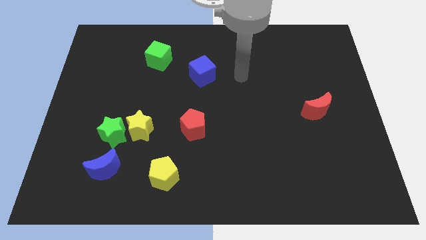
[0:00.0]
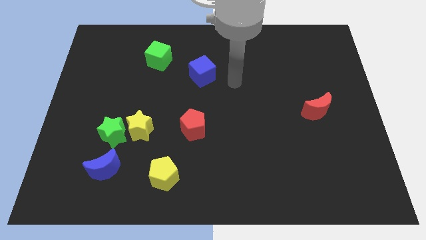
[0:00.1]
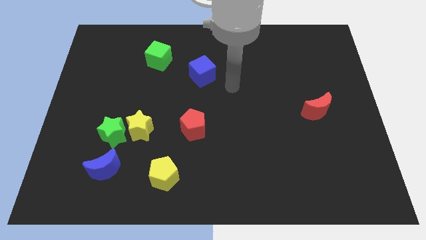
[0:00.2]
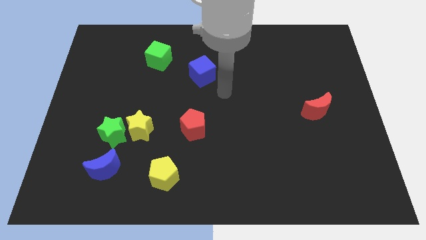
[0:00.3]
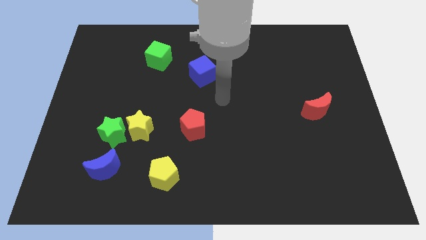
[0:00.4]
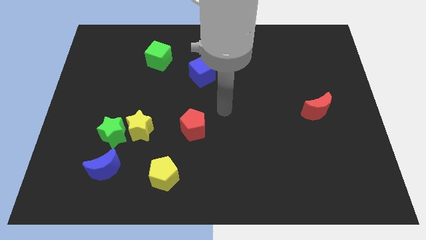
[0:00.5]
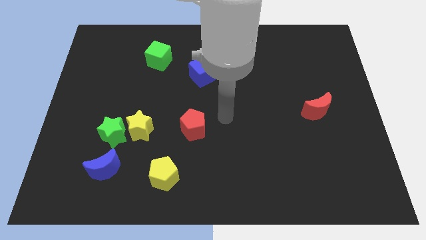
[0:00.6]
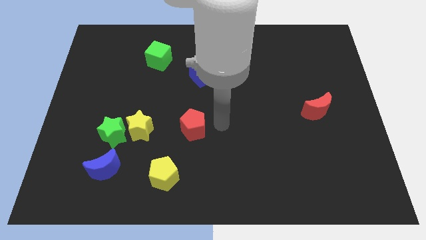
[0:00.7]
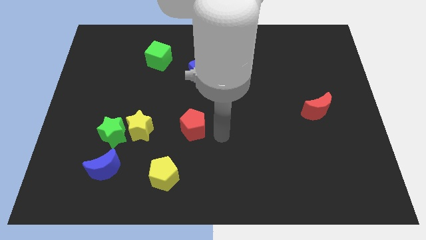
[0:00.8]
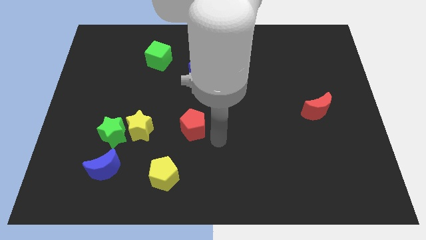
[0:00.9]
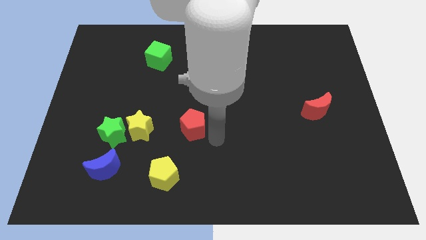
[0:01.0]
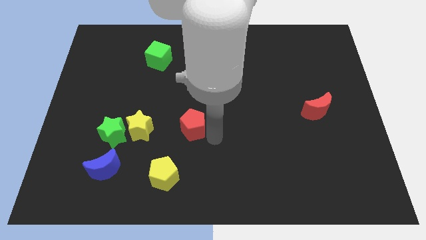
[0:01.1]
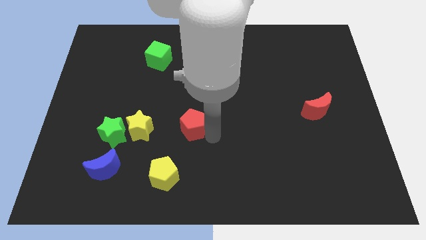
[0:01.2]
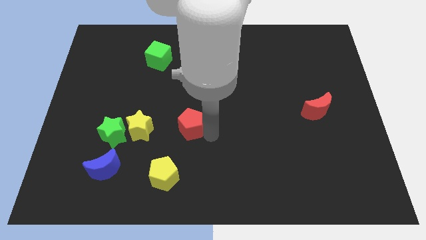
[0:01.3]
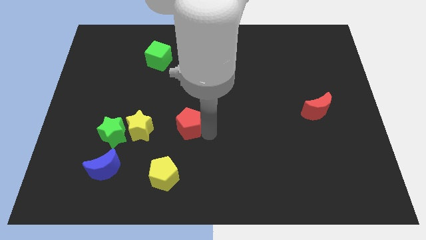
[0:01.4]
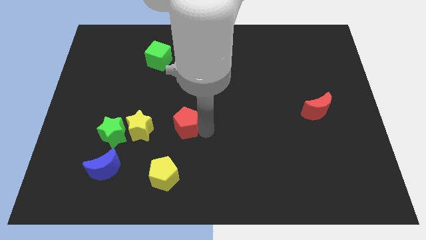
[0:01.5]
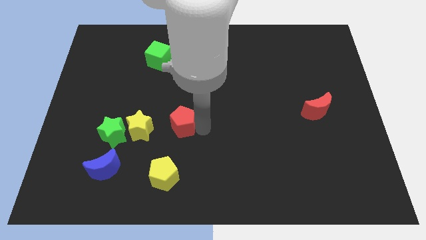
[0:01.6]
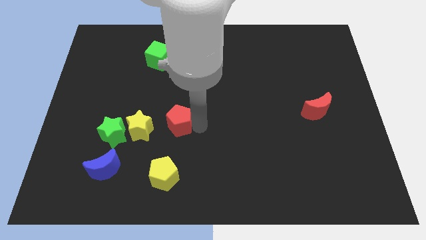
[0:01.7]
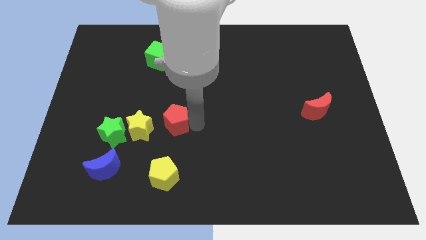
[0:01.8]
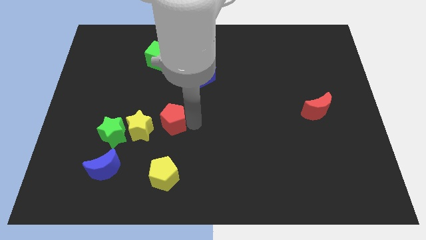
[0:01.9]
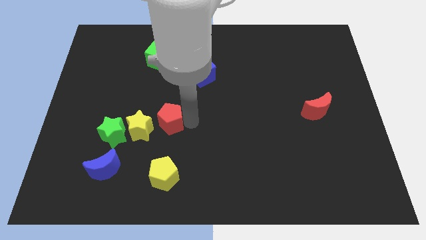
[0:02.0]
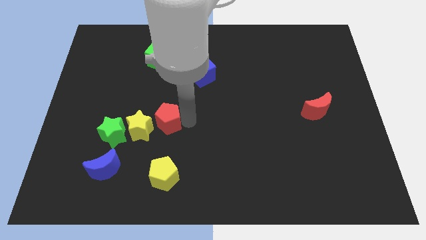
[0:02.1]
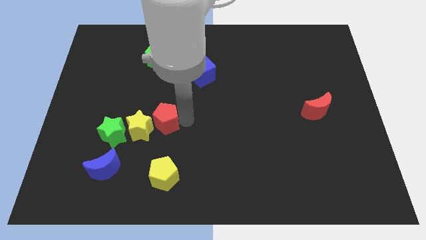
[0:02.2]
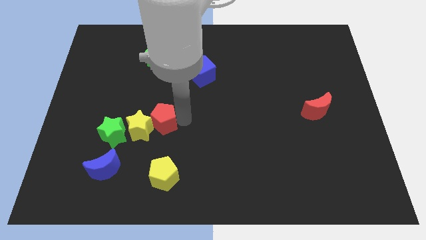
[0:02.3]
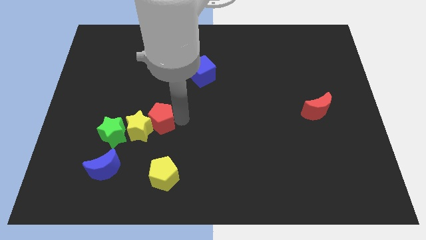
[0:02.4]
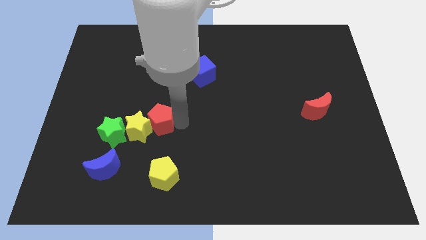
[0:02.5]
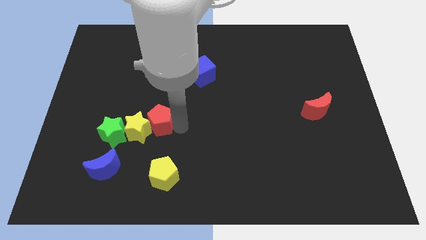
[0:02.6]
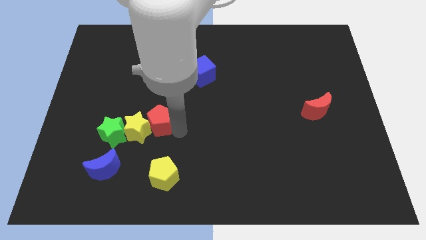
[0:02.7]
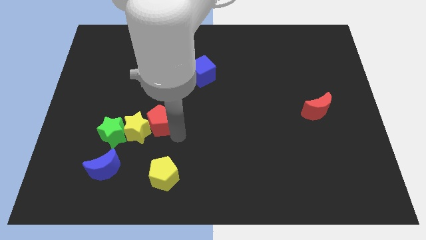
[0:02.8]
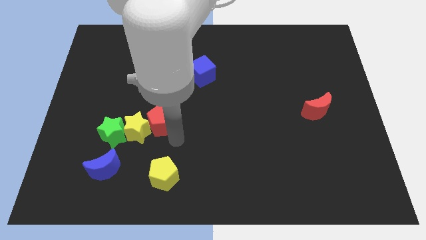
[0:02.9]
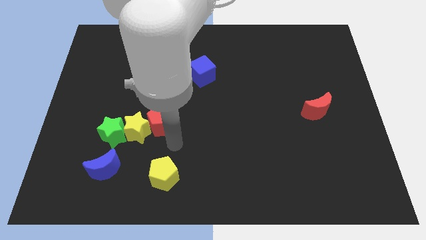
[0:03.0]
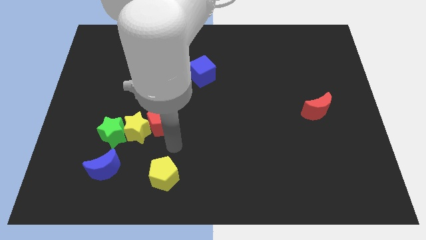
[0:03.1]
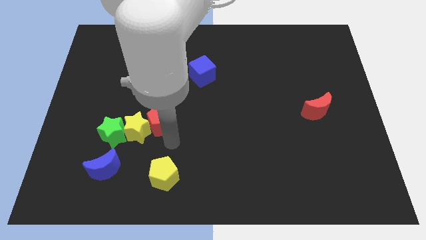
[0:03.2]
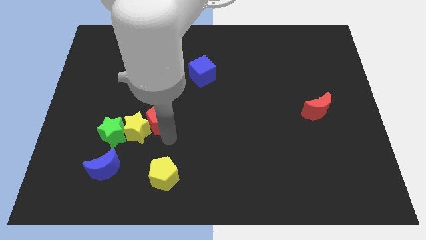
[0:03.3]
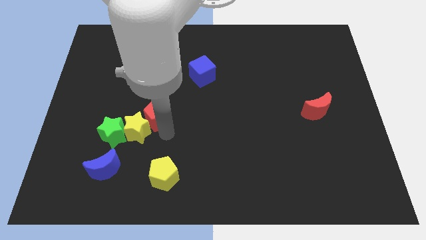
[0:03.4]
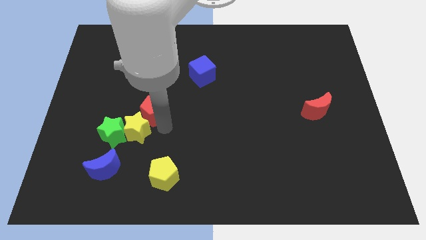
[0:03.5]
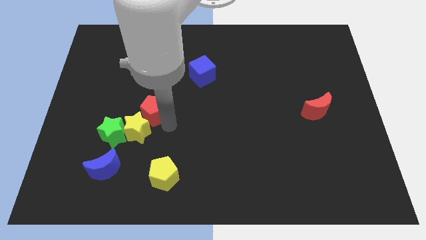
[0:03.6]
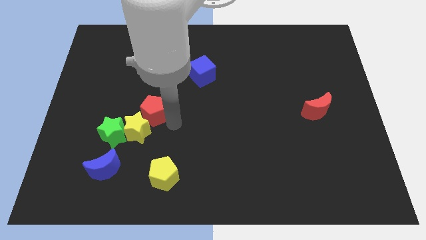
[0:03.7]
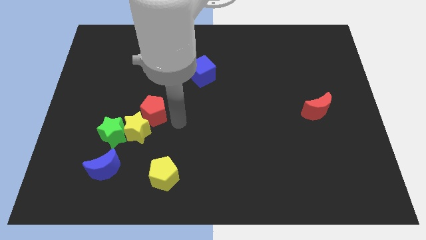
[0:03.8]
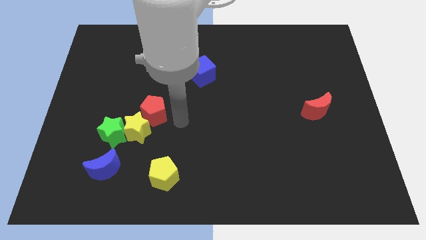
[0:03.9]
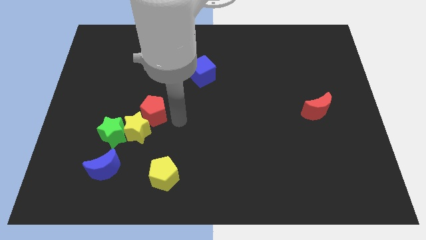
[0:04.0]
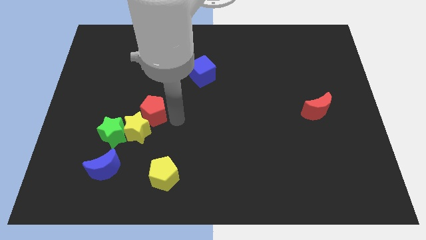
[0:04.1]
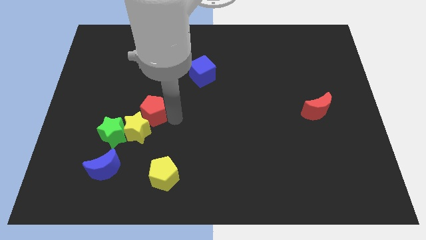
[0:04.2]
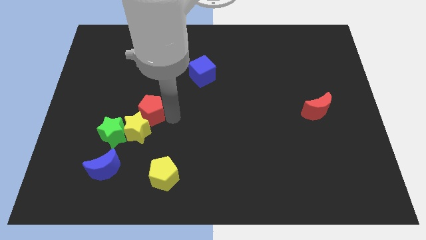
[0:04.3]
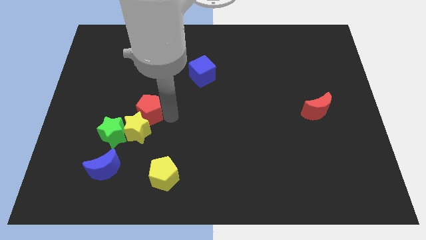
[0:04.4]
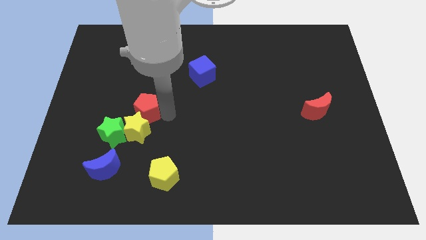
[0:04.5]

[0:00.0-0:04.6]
put the red pentagon diagonally up and to the left of the yellow star

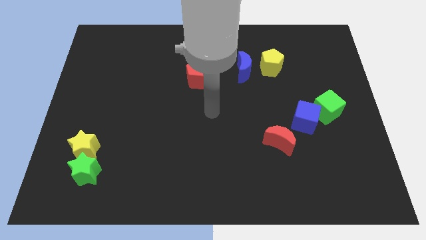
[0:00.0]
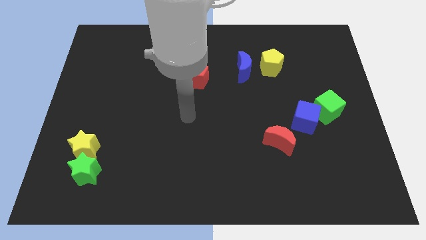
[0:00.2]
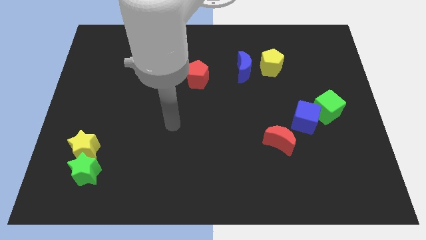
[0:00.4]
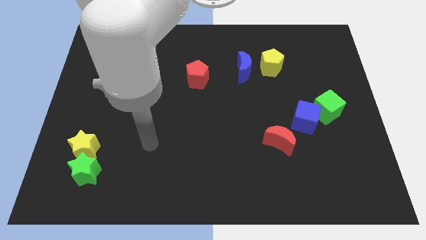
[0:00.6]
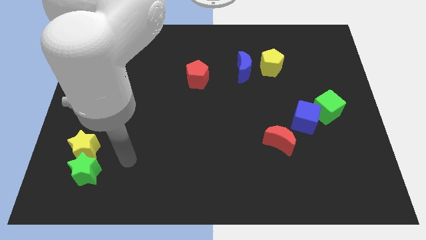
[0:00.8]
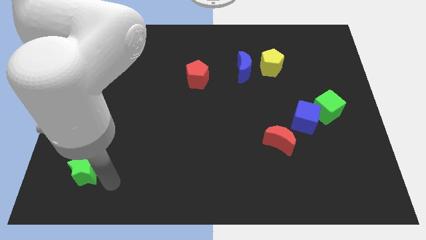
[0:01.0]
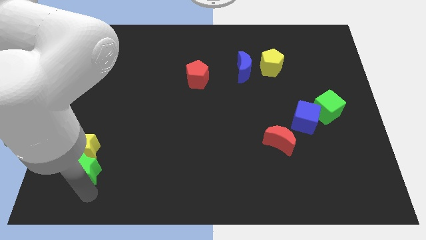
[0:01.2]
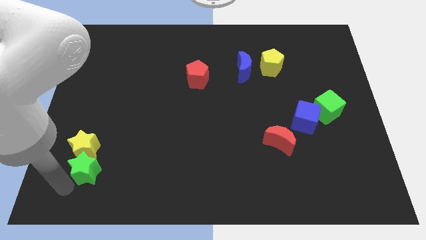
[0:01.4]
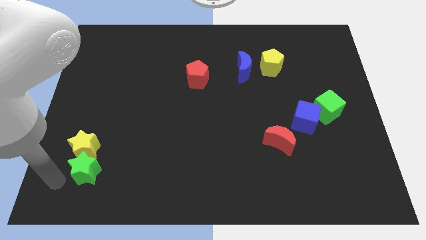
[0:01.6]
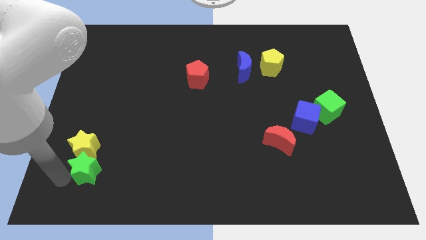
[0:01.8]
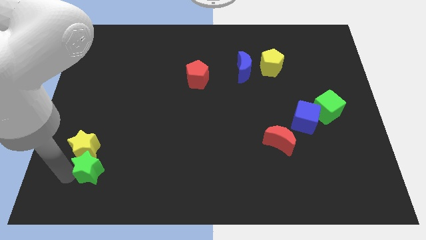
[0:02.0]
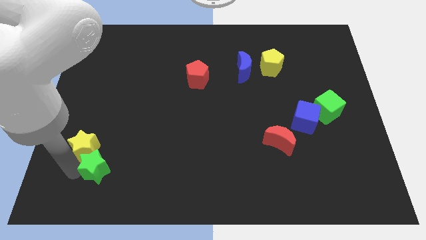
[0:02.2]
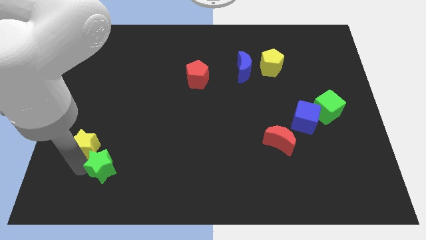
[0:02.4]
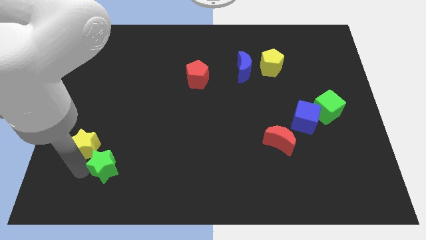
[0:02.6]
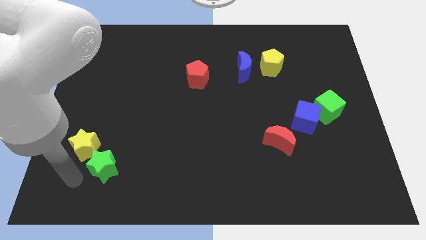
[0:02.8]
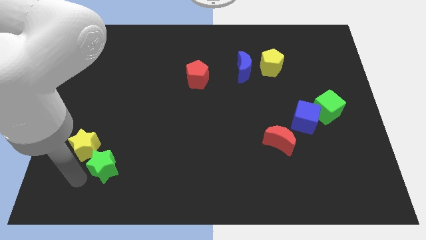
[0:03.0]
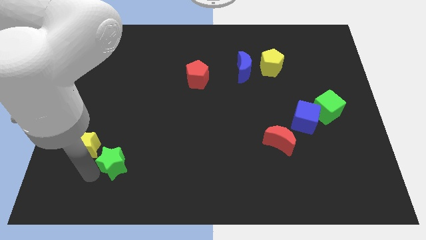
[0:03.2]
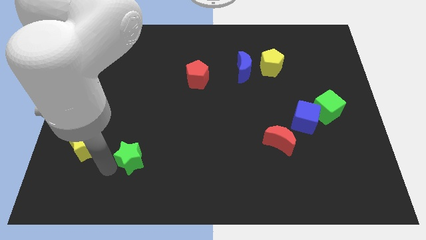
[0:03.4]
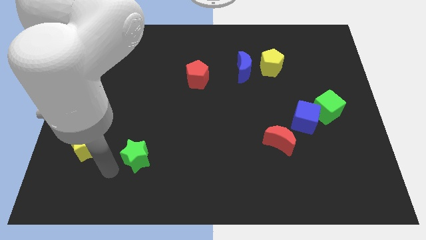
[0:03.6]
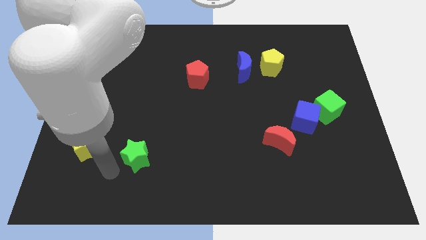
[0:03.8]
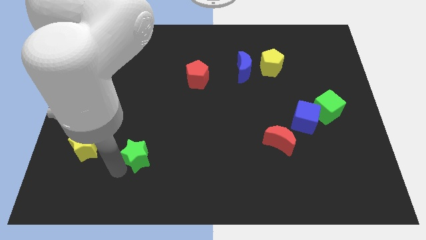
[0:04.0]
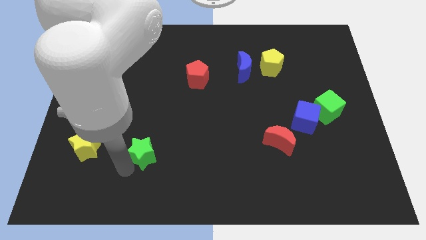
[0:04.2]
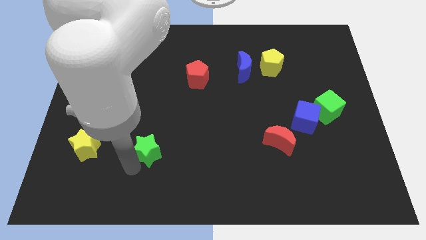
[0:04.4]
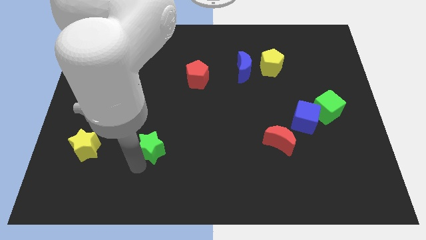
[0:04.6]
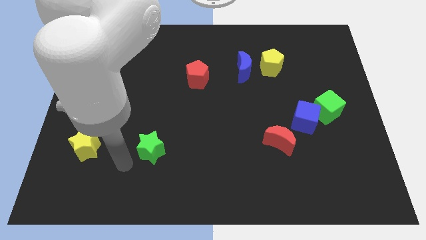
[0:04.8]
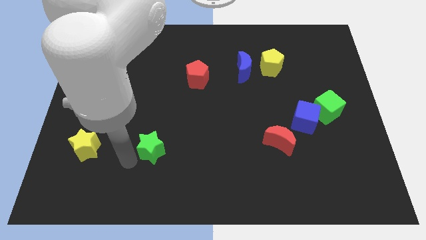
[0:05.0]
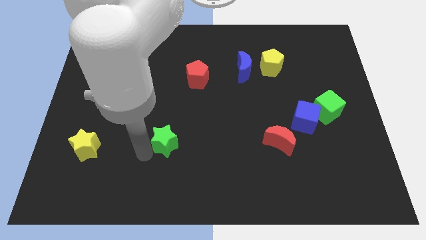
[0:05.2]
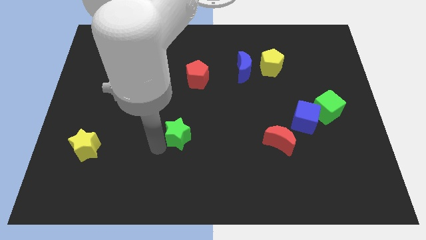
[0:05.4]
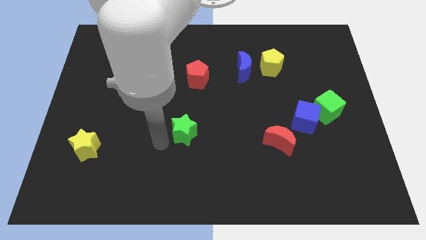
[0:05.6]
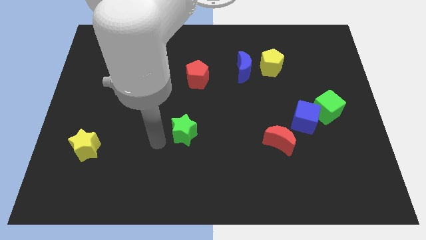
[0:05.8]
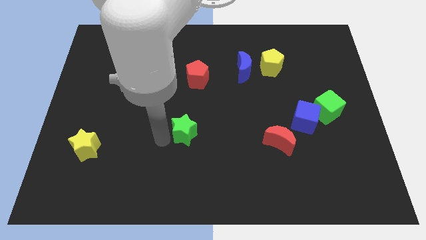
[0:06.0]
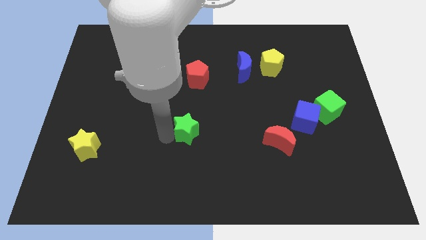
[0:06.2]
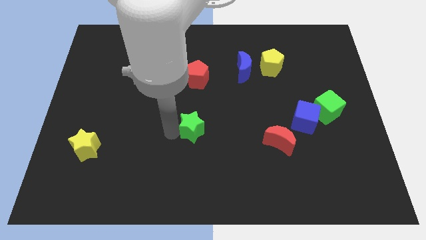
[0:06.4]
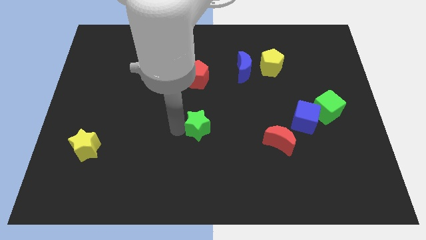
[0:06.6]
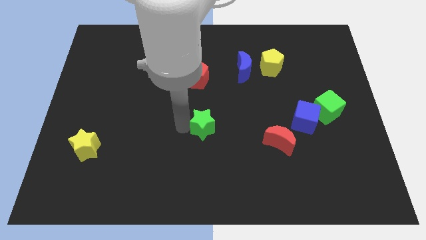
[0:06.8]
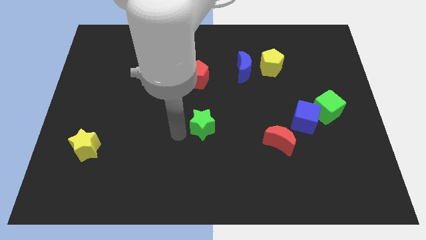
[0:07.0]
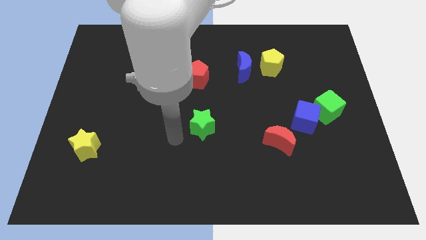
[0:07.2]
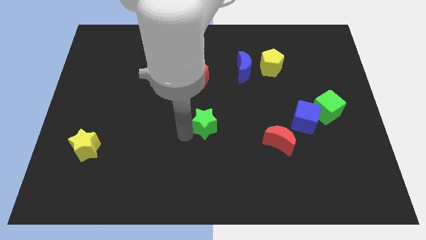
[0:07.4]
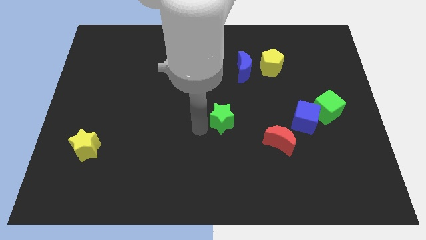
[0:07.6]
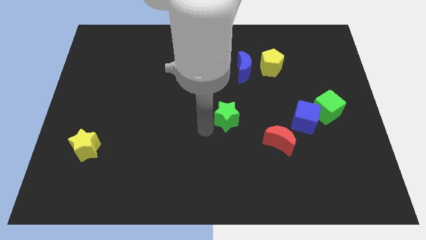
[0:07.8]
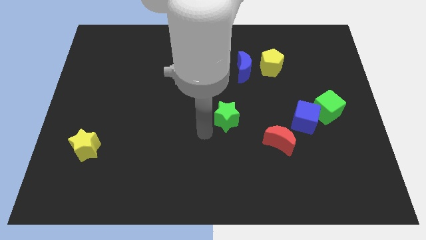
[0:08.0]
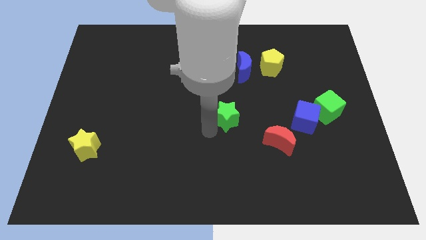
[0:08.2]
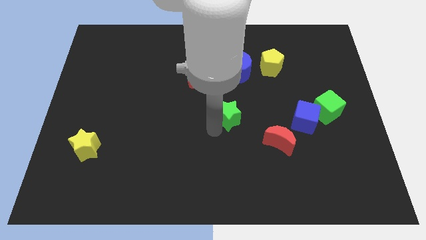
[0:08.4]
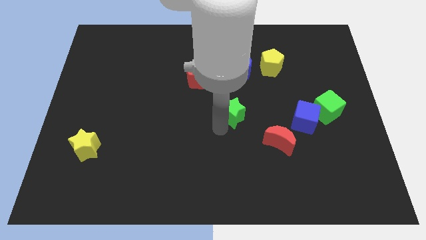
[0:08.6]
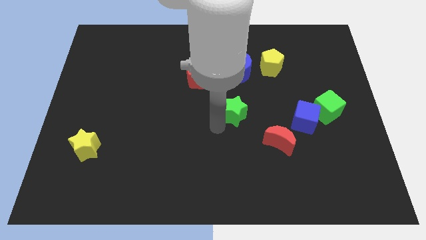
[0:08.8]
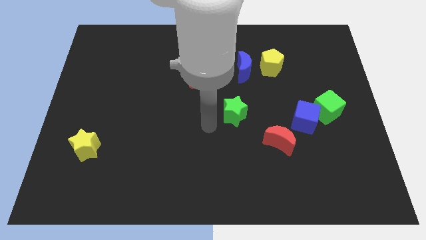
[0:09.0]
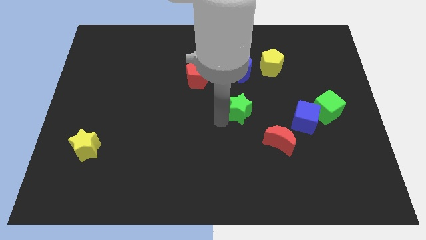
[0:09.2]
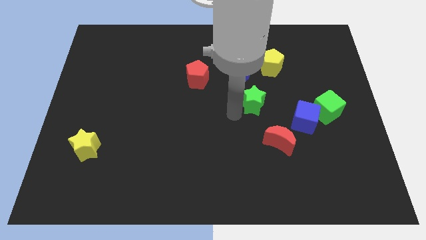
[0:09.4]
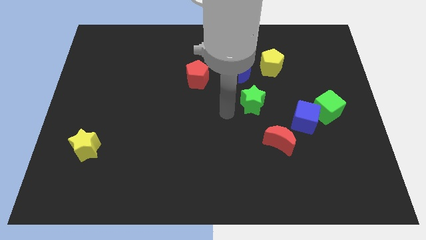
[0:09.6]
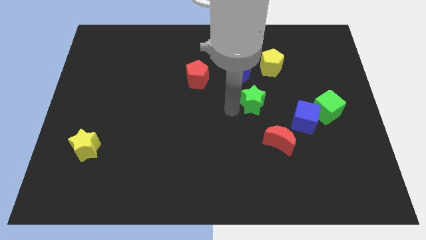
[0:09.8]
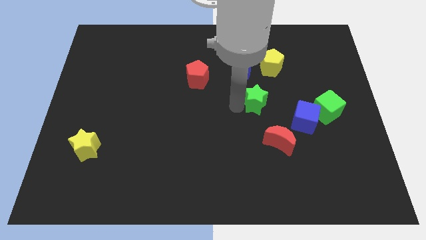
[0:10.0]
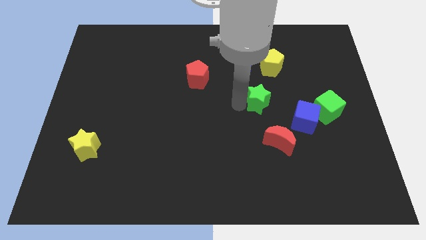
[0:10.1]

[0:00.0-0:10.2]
put the green star below the yellow pentagon
